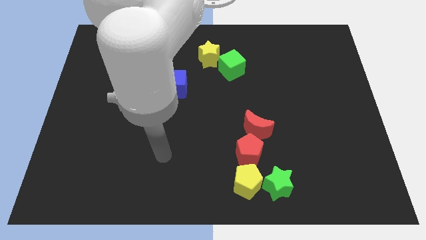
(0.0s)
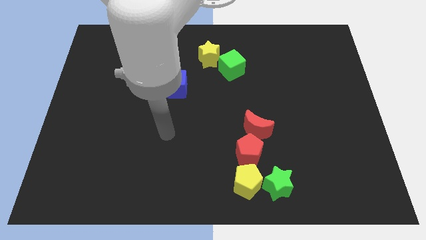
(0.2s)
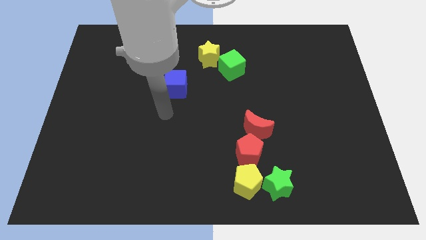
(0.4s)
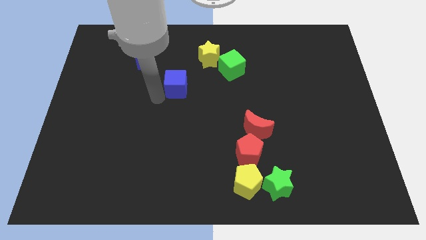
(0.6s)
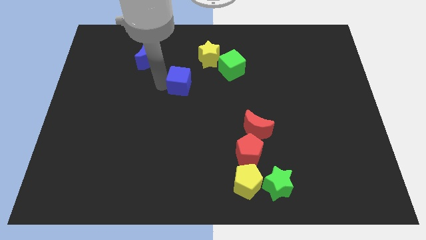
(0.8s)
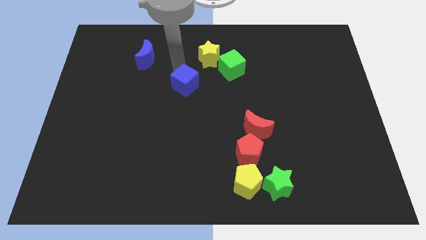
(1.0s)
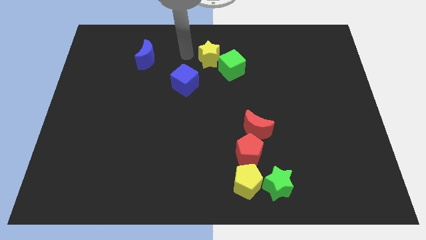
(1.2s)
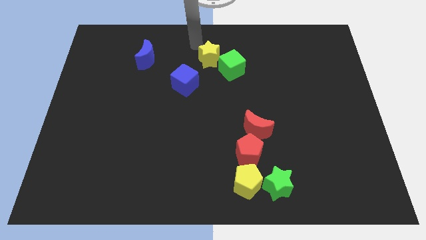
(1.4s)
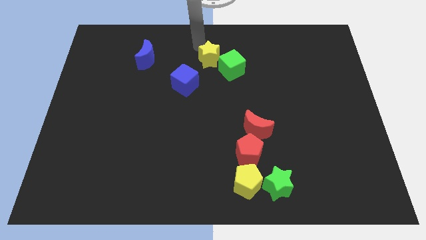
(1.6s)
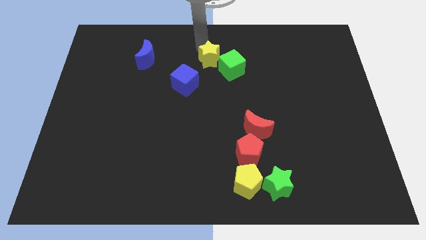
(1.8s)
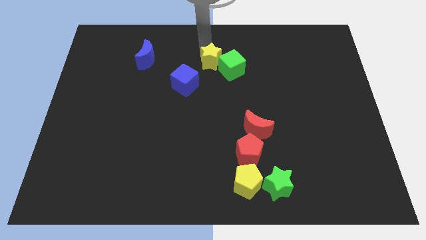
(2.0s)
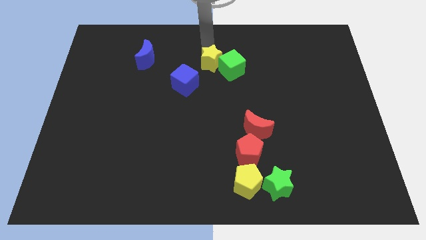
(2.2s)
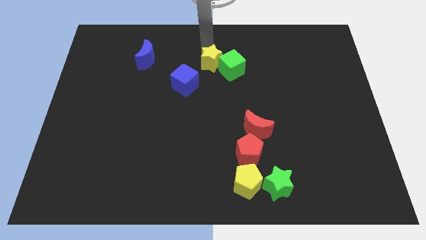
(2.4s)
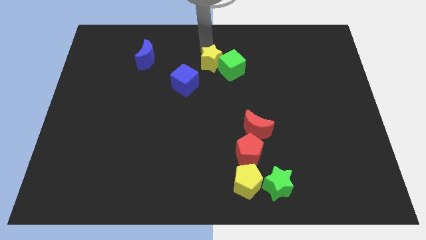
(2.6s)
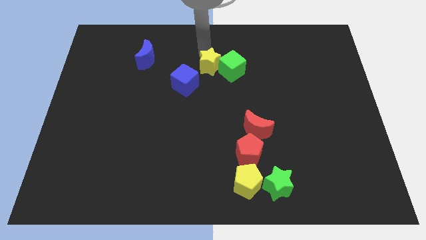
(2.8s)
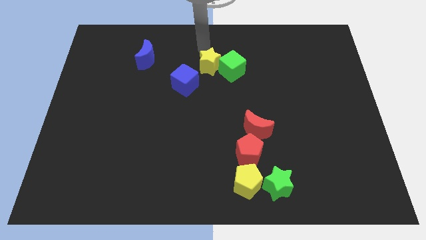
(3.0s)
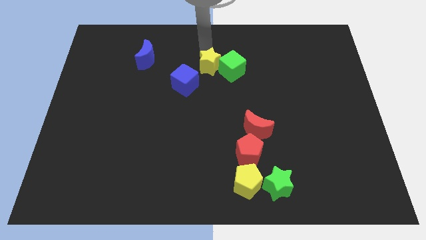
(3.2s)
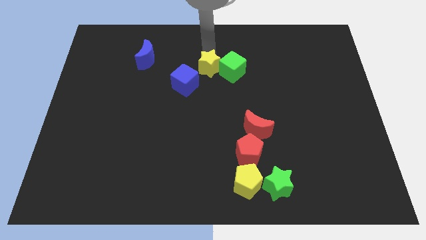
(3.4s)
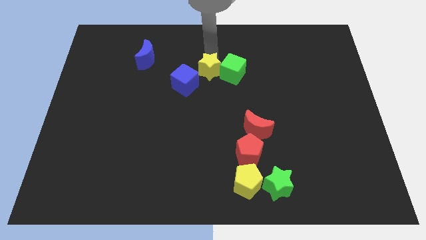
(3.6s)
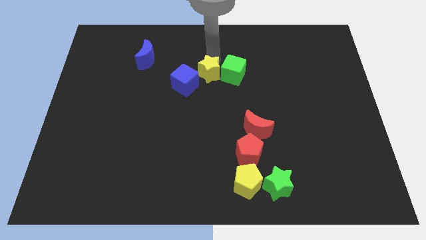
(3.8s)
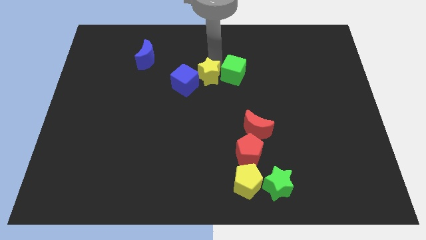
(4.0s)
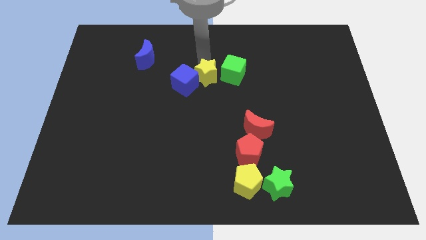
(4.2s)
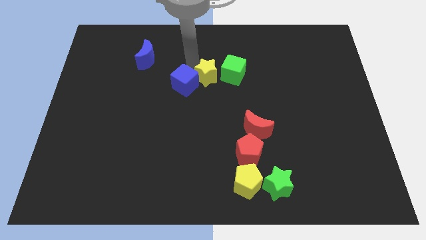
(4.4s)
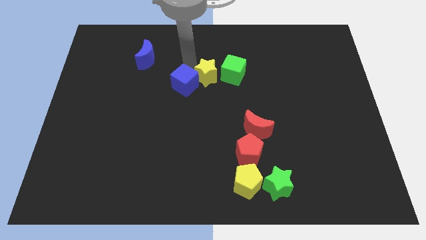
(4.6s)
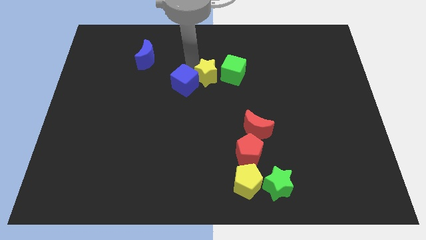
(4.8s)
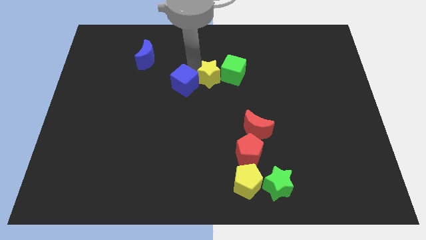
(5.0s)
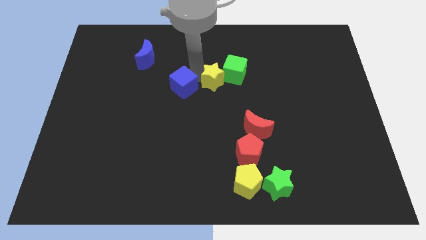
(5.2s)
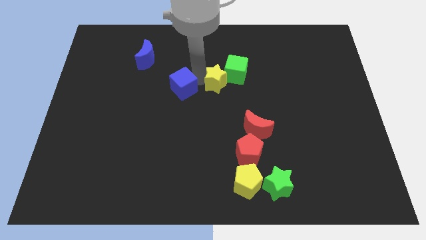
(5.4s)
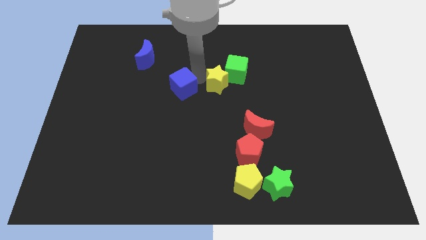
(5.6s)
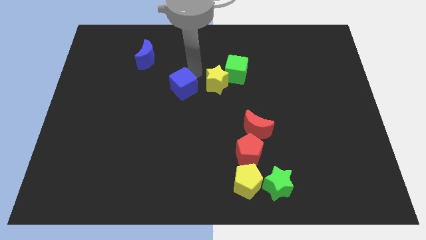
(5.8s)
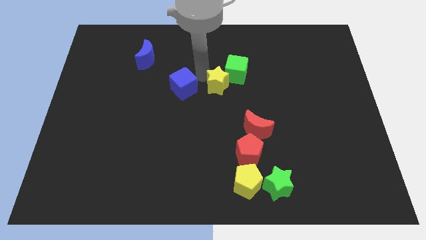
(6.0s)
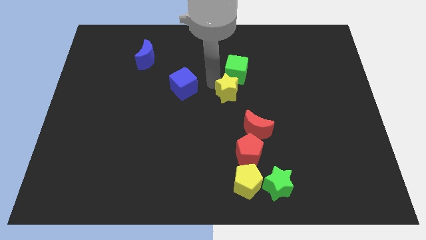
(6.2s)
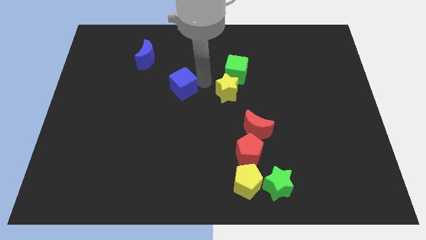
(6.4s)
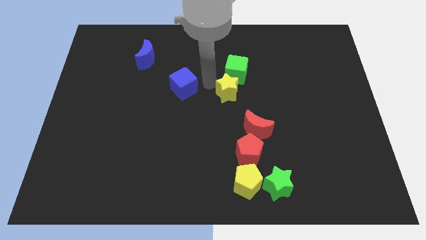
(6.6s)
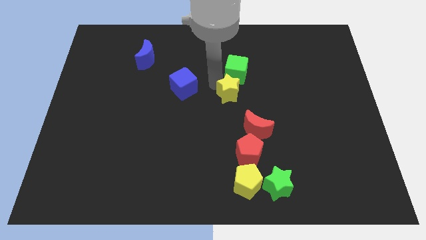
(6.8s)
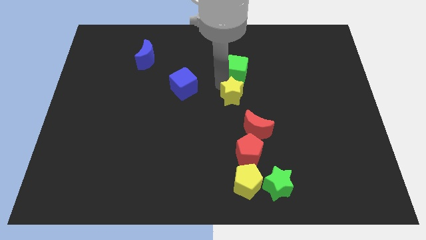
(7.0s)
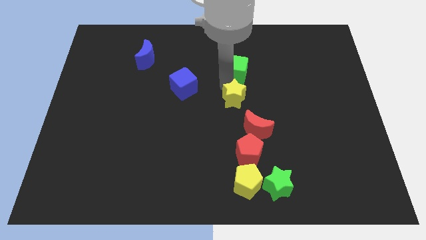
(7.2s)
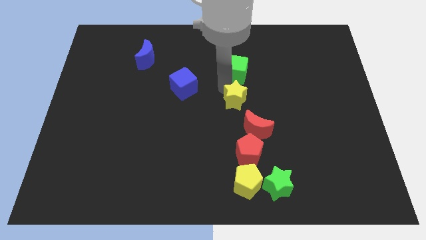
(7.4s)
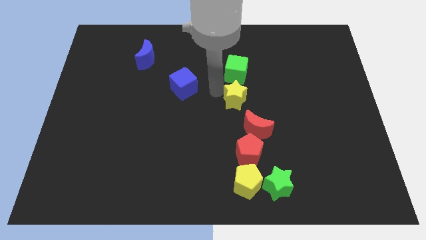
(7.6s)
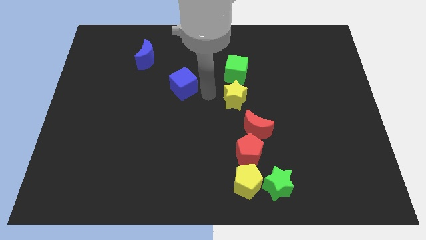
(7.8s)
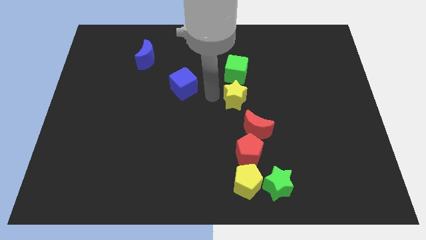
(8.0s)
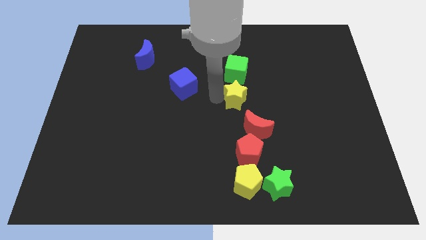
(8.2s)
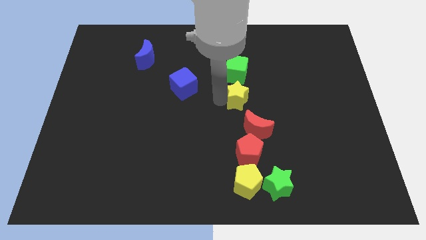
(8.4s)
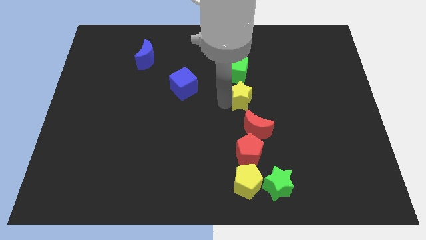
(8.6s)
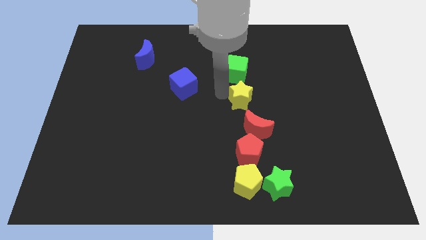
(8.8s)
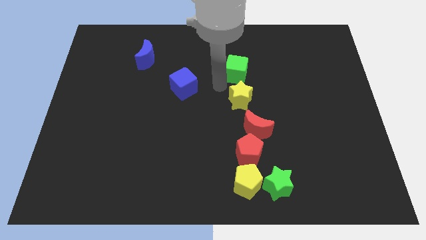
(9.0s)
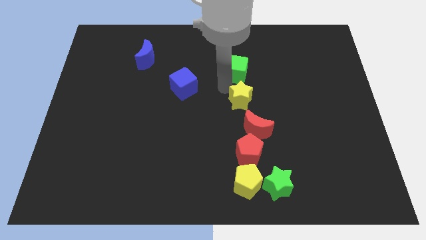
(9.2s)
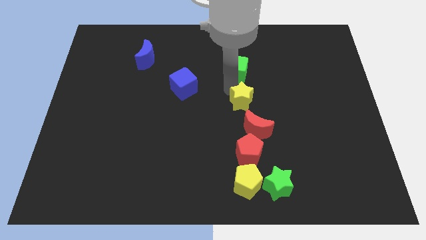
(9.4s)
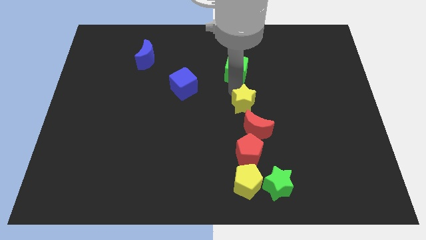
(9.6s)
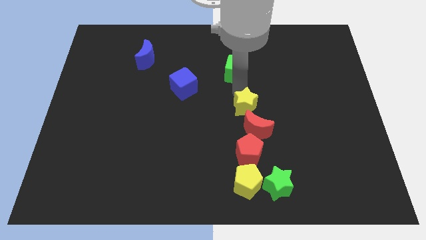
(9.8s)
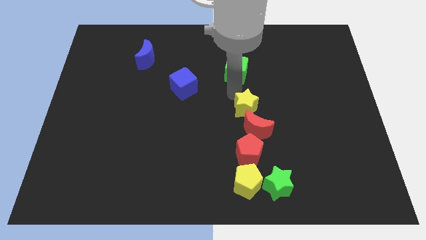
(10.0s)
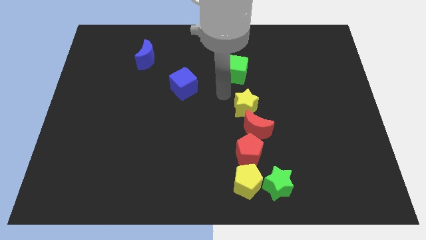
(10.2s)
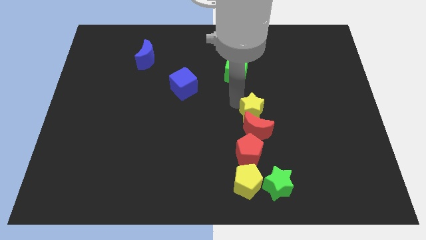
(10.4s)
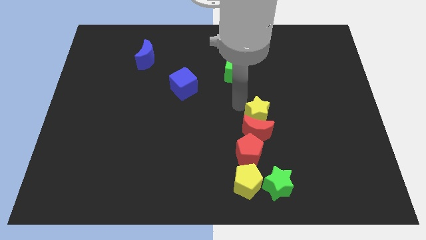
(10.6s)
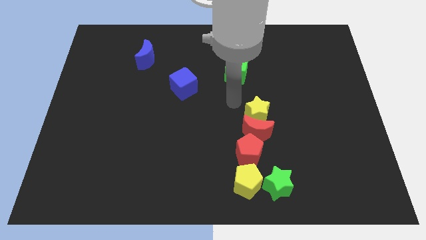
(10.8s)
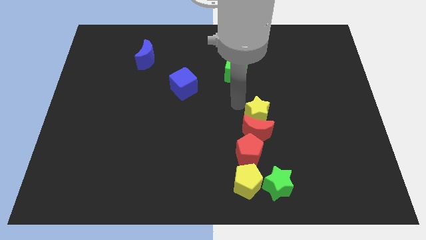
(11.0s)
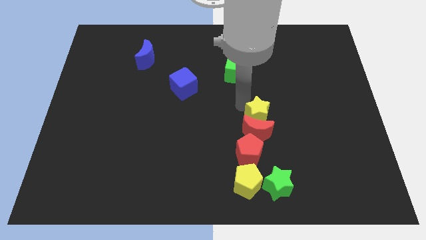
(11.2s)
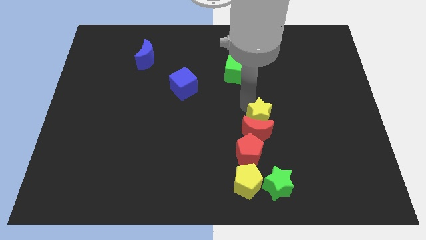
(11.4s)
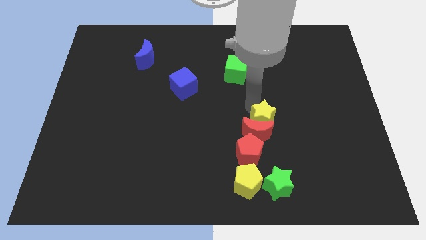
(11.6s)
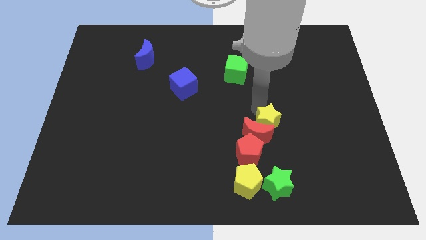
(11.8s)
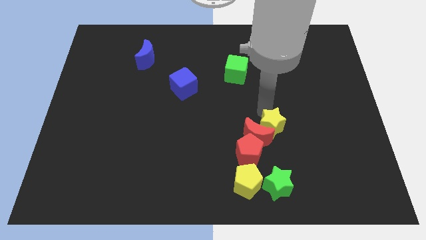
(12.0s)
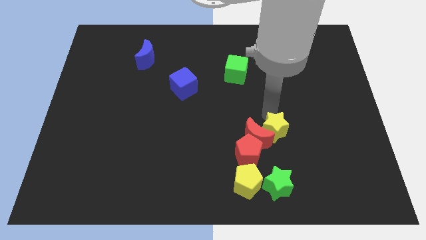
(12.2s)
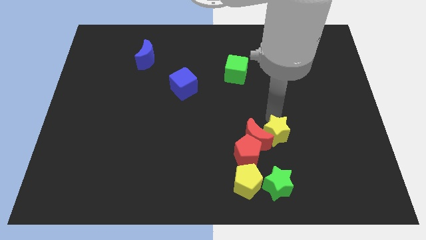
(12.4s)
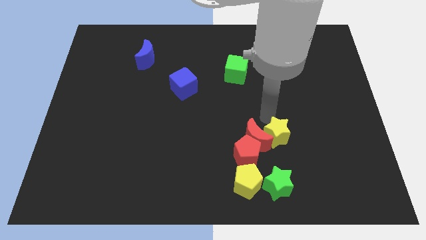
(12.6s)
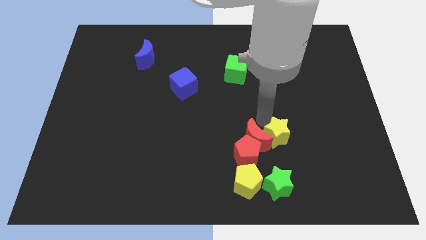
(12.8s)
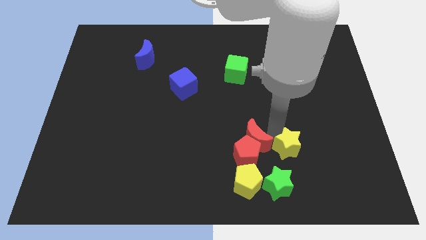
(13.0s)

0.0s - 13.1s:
push the yellow star to the top right side of the green star

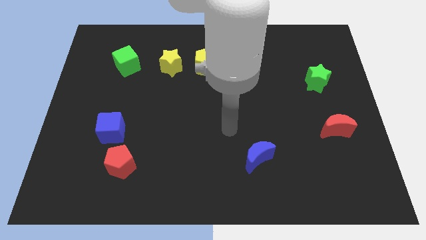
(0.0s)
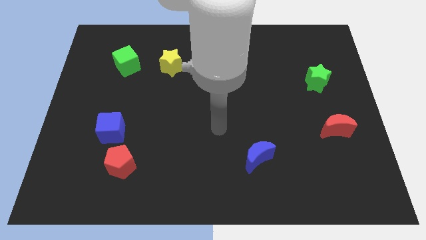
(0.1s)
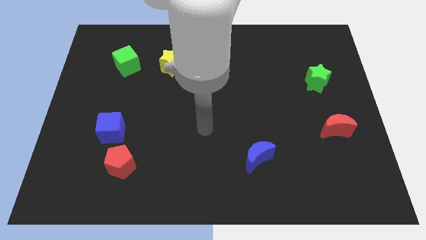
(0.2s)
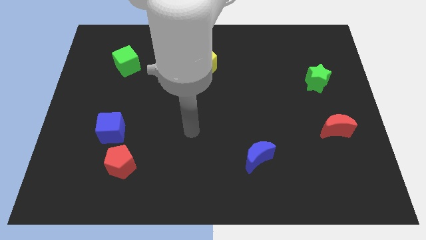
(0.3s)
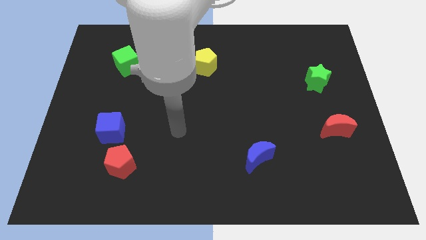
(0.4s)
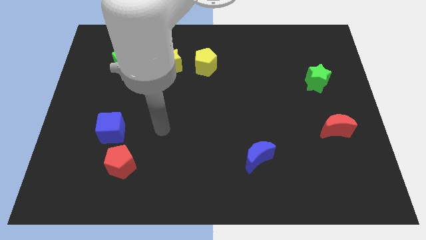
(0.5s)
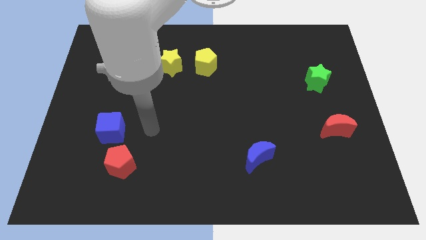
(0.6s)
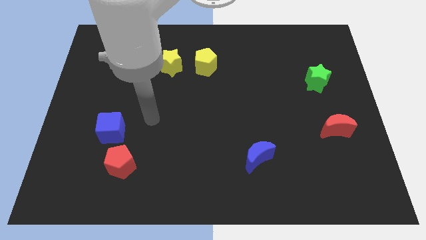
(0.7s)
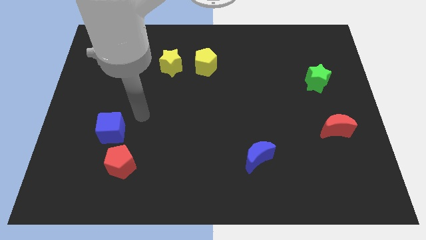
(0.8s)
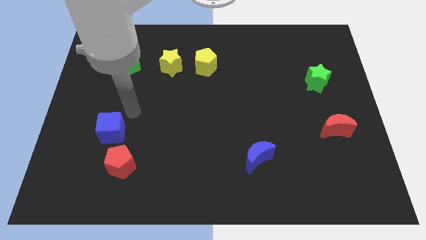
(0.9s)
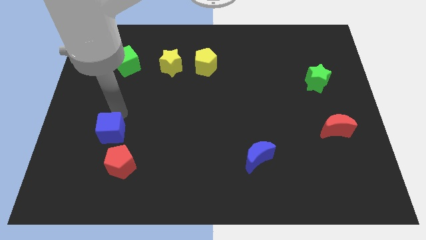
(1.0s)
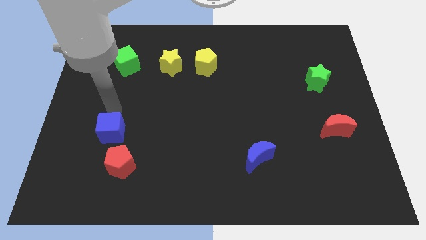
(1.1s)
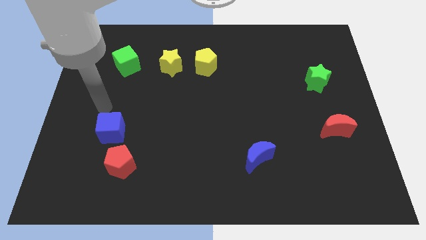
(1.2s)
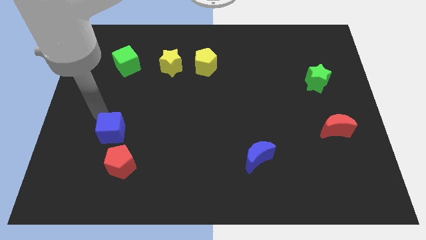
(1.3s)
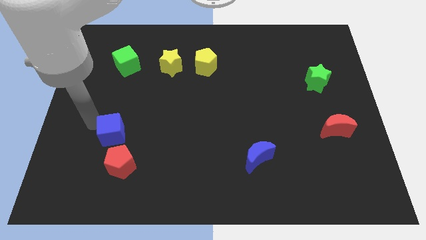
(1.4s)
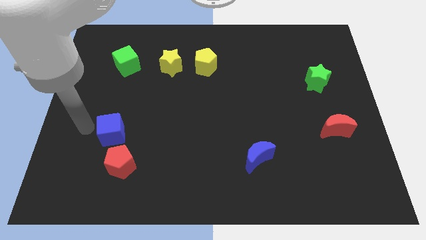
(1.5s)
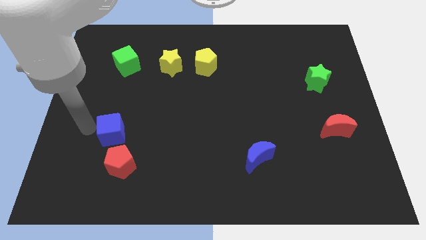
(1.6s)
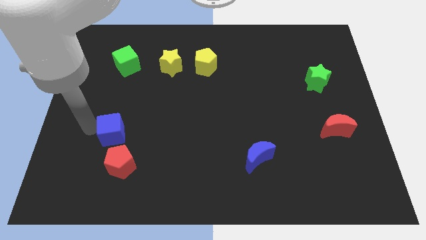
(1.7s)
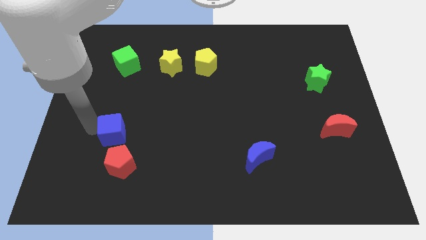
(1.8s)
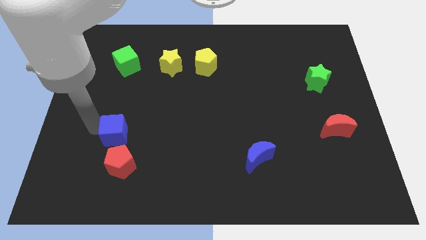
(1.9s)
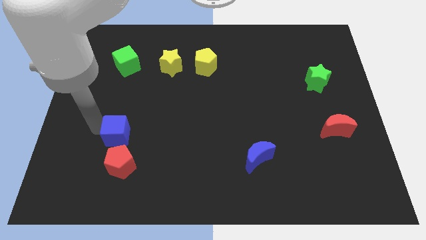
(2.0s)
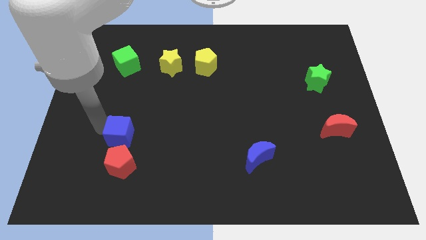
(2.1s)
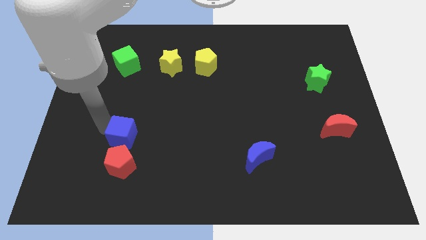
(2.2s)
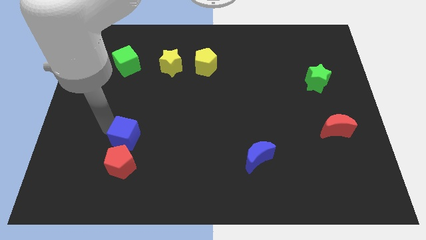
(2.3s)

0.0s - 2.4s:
slide the blue cube to the top right side of the red pentagon
